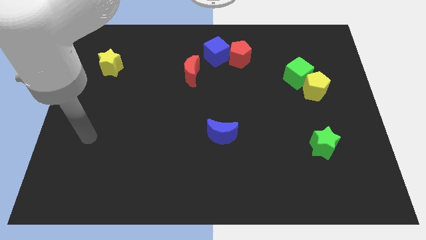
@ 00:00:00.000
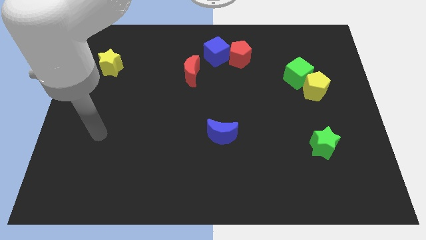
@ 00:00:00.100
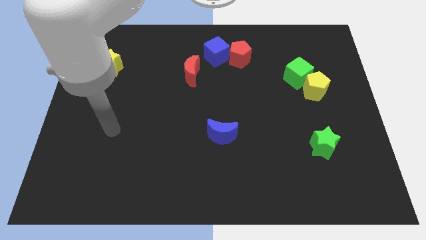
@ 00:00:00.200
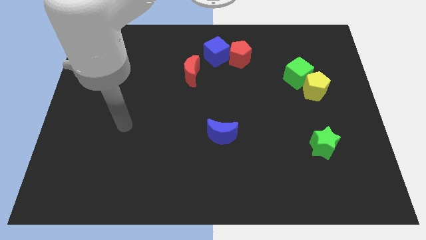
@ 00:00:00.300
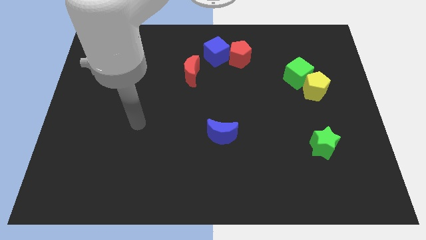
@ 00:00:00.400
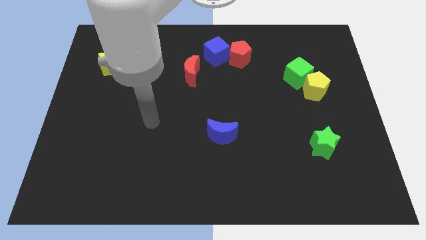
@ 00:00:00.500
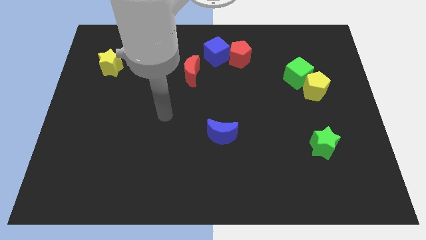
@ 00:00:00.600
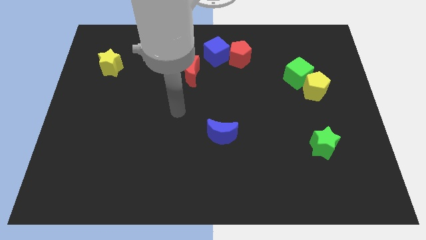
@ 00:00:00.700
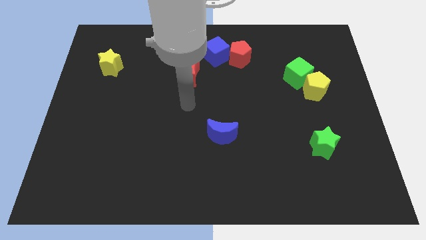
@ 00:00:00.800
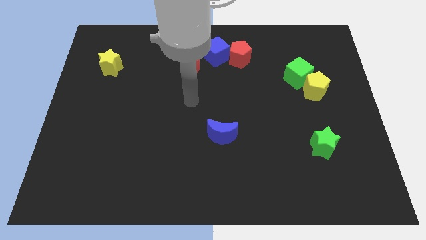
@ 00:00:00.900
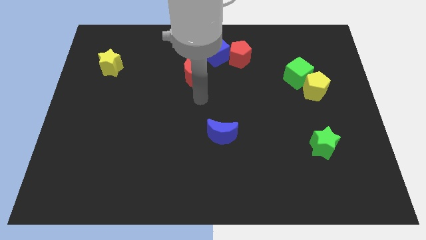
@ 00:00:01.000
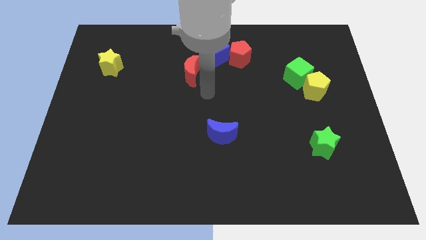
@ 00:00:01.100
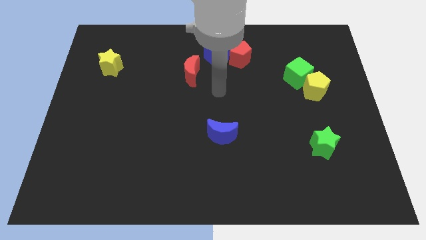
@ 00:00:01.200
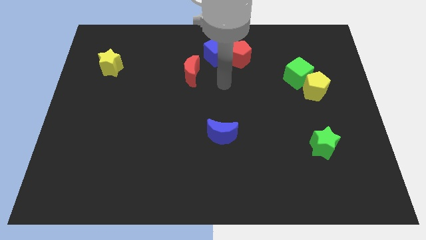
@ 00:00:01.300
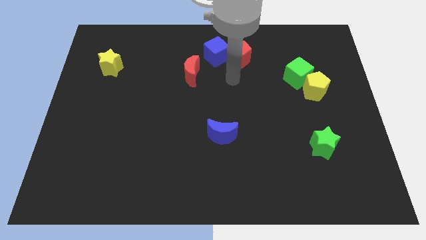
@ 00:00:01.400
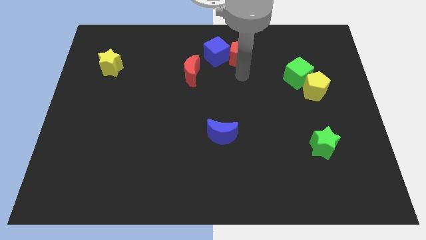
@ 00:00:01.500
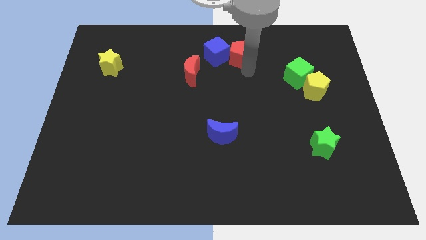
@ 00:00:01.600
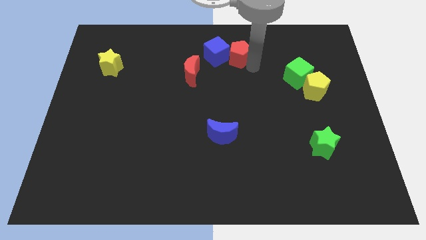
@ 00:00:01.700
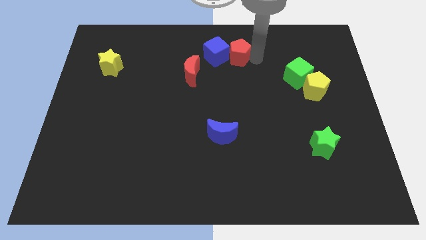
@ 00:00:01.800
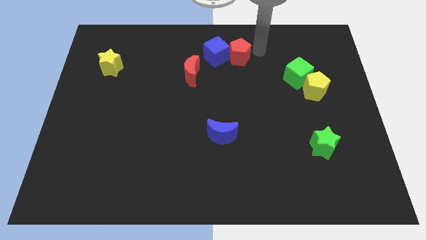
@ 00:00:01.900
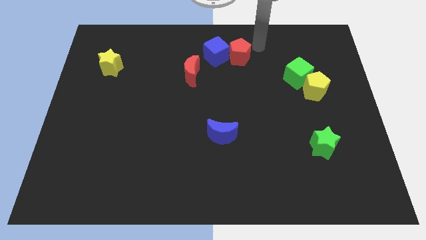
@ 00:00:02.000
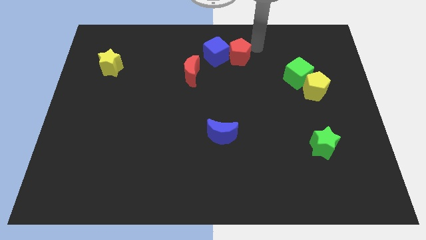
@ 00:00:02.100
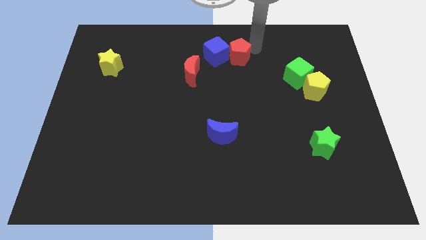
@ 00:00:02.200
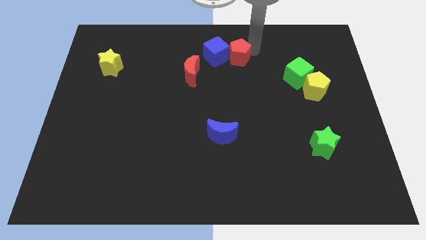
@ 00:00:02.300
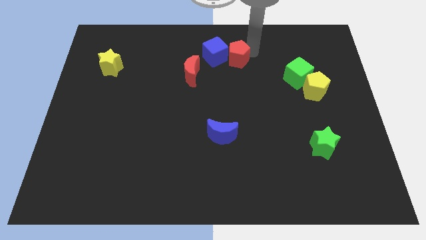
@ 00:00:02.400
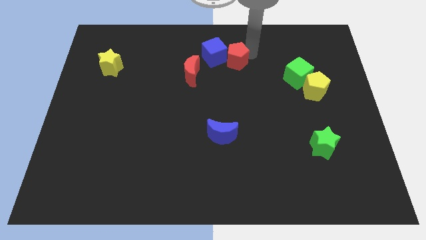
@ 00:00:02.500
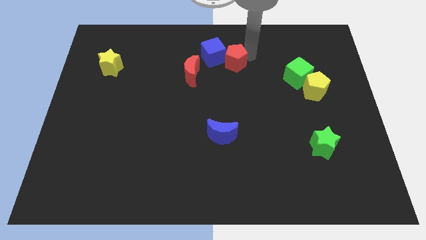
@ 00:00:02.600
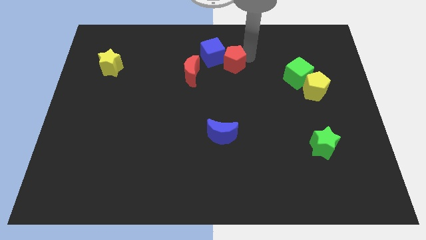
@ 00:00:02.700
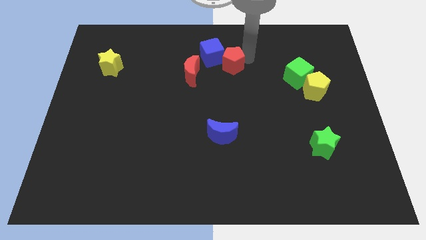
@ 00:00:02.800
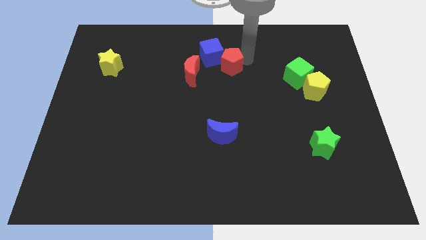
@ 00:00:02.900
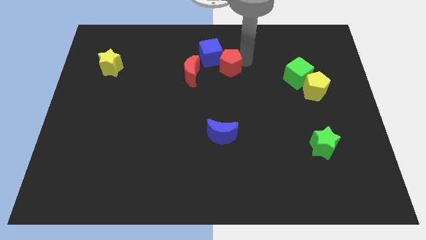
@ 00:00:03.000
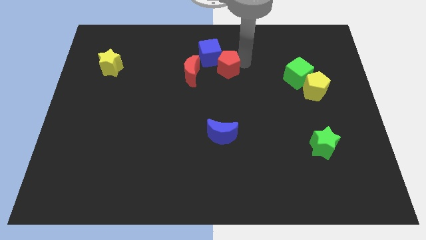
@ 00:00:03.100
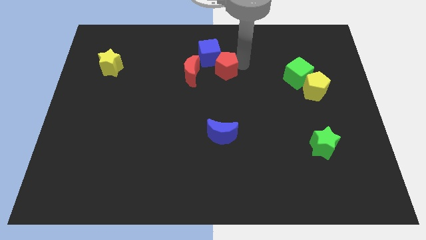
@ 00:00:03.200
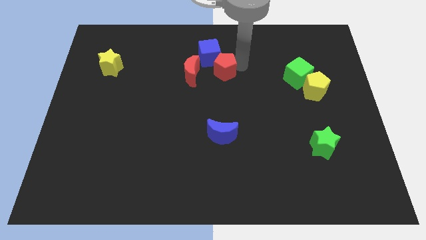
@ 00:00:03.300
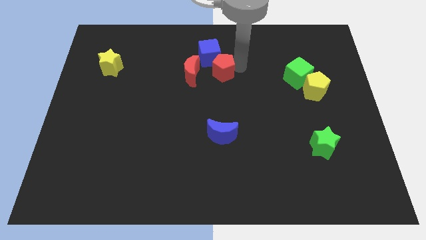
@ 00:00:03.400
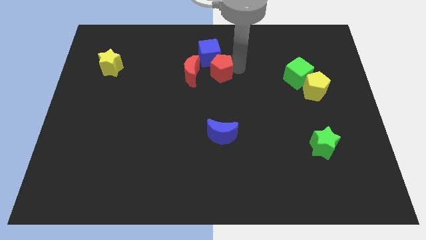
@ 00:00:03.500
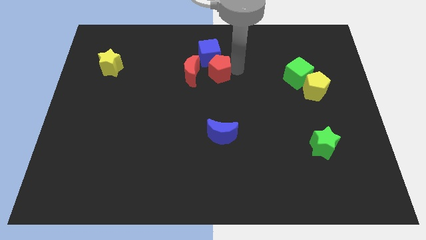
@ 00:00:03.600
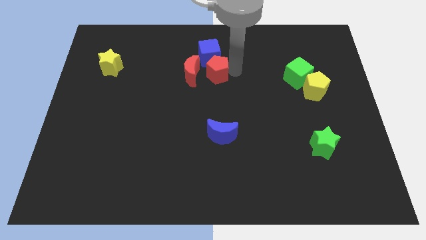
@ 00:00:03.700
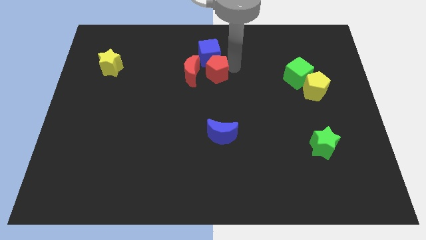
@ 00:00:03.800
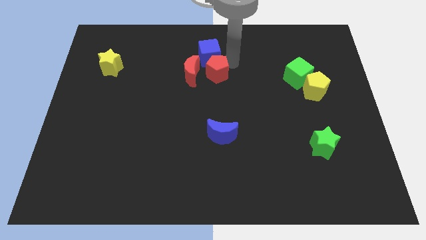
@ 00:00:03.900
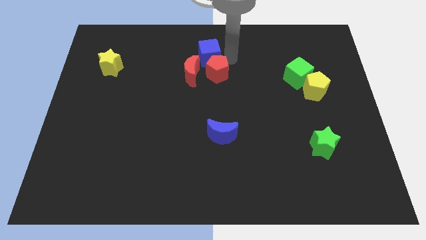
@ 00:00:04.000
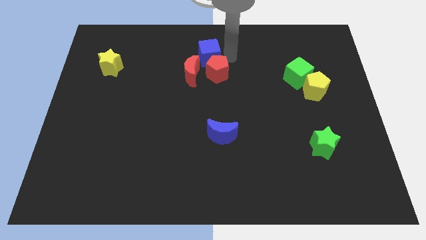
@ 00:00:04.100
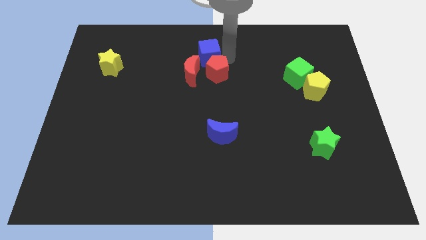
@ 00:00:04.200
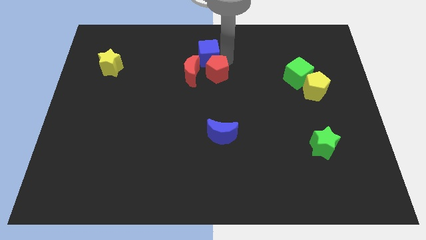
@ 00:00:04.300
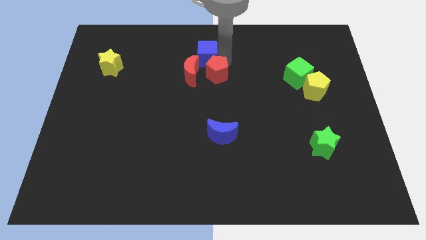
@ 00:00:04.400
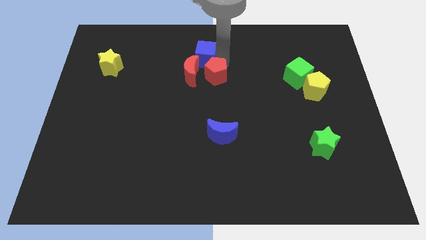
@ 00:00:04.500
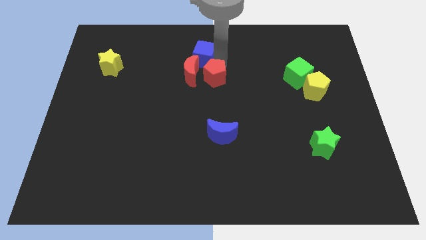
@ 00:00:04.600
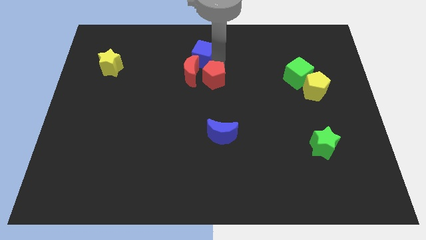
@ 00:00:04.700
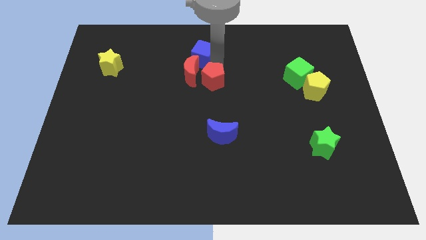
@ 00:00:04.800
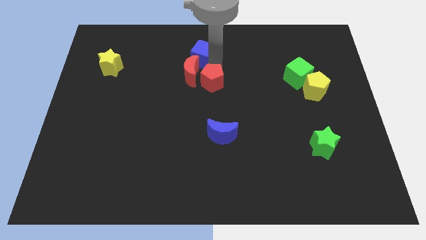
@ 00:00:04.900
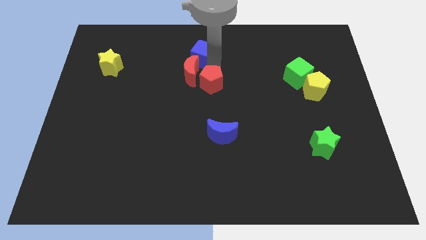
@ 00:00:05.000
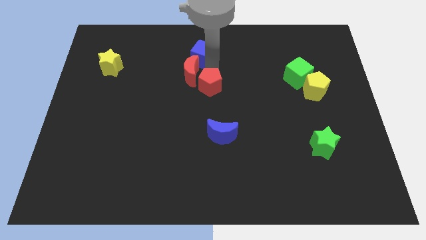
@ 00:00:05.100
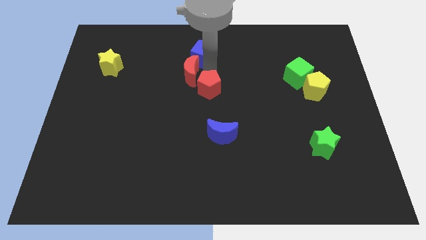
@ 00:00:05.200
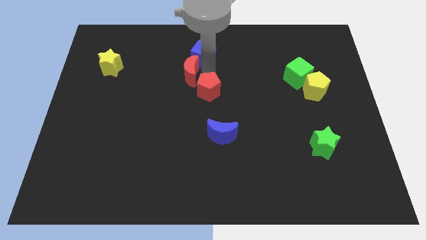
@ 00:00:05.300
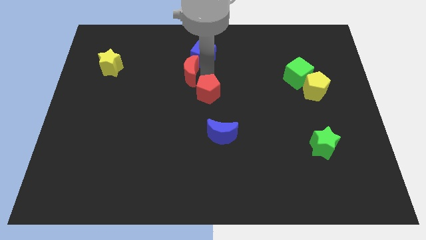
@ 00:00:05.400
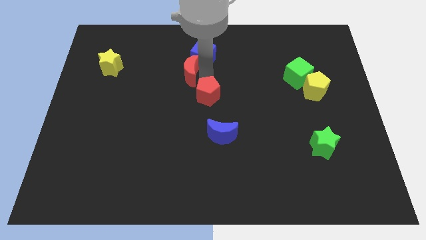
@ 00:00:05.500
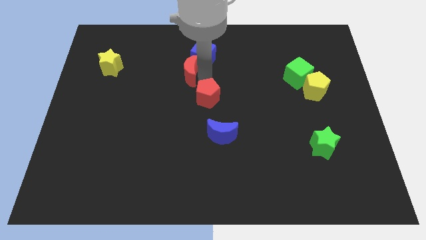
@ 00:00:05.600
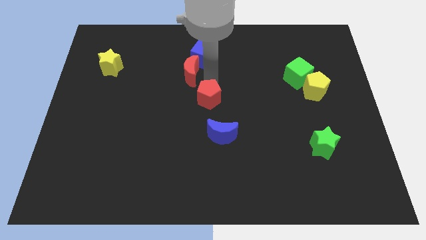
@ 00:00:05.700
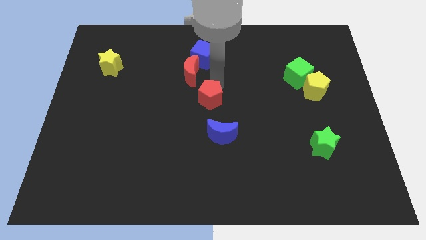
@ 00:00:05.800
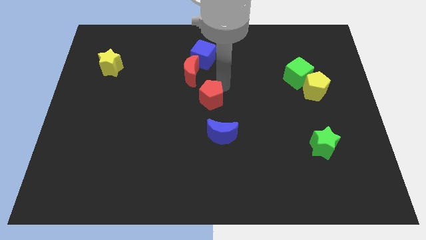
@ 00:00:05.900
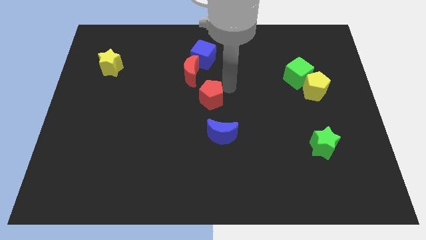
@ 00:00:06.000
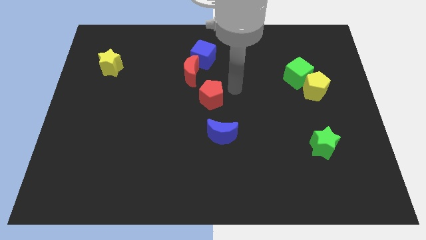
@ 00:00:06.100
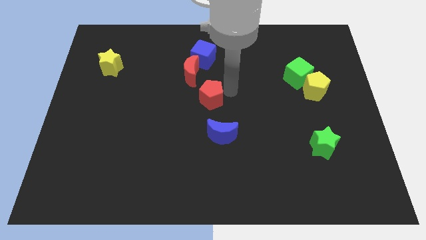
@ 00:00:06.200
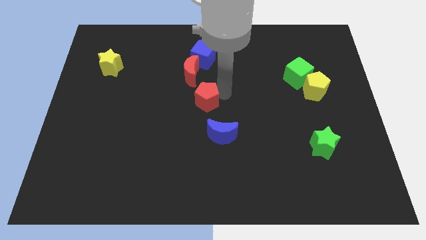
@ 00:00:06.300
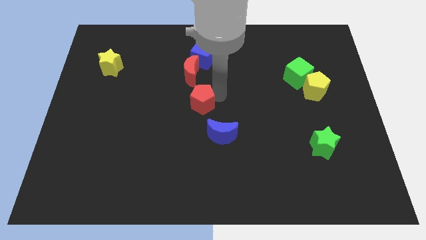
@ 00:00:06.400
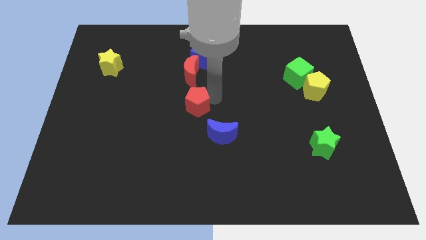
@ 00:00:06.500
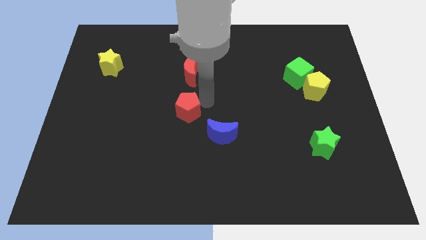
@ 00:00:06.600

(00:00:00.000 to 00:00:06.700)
move the red pentagon diagonally down and to the left

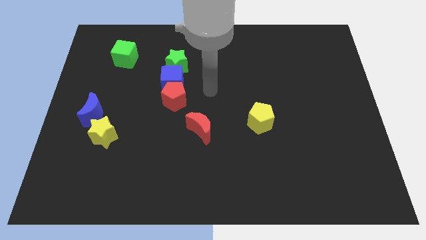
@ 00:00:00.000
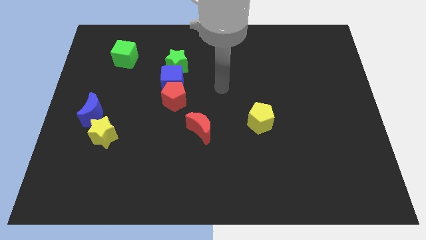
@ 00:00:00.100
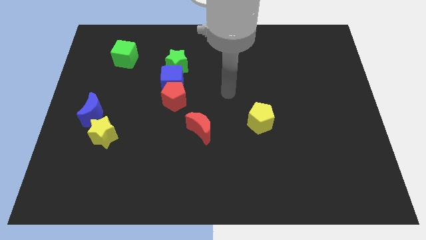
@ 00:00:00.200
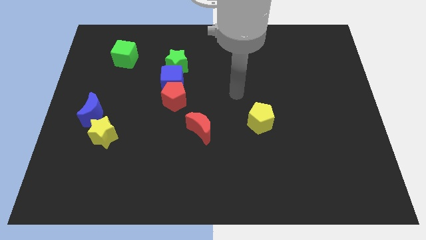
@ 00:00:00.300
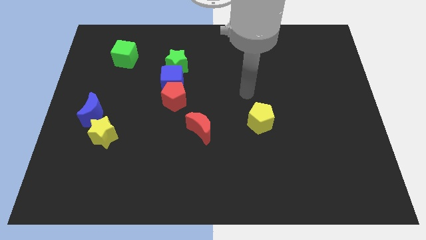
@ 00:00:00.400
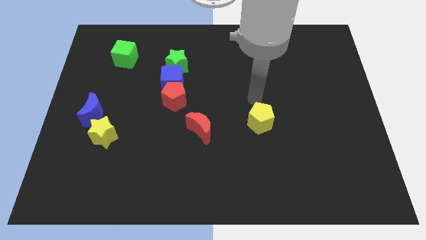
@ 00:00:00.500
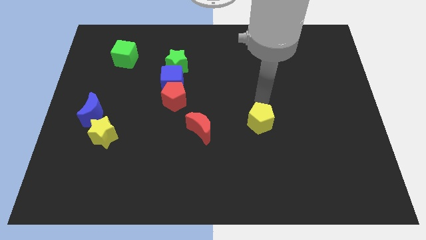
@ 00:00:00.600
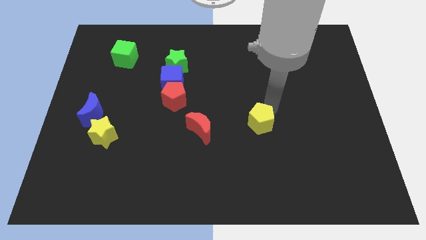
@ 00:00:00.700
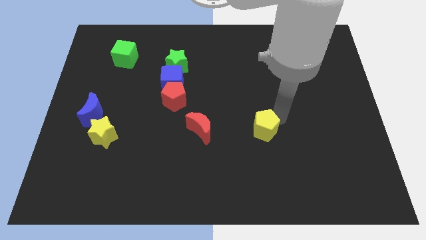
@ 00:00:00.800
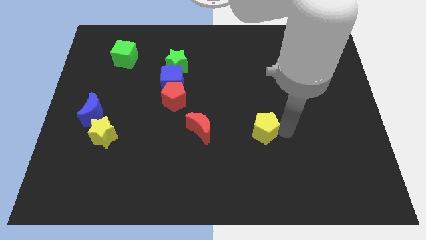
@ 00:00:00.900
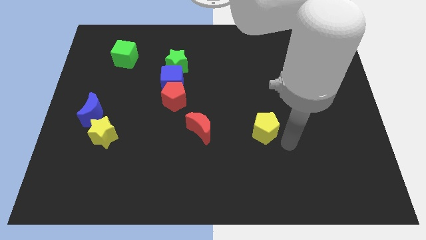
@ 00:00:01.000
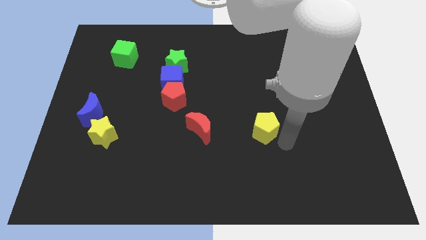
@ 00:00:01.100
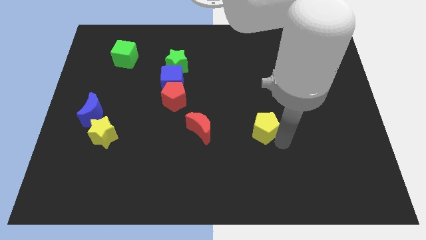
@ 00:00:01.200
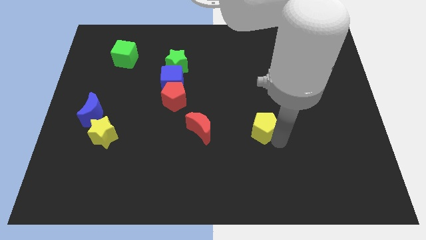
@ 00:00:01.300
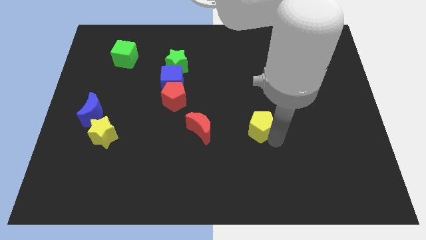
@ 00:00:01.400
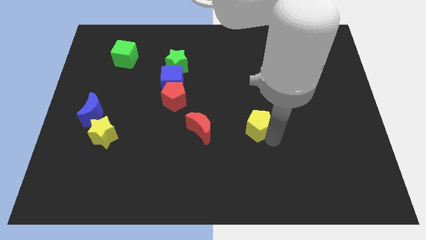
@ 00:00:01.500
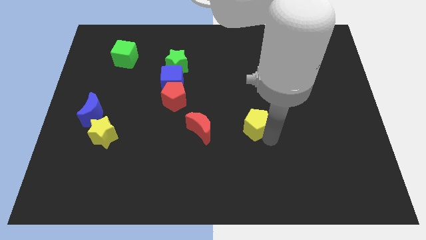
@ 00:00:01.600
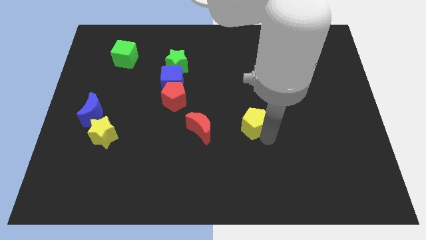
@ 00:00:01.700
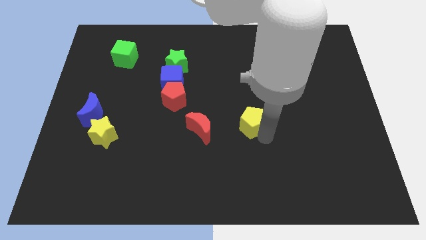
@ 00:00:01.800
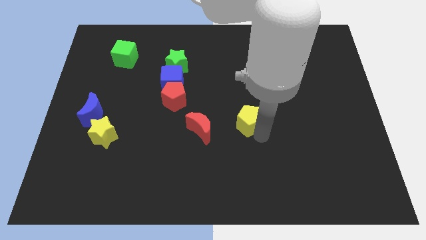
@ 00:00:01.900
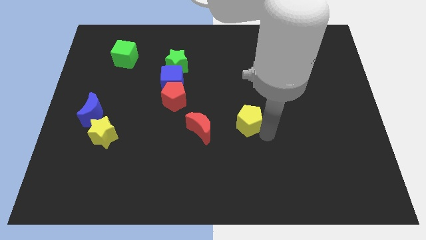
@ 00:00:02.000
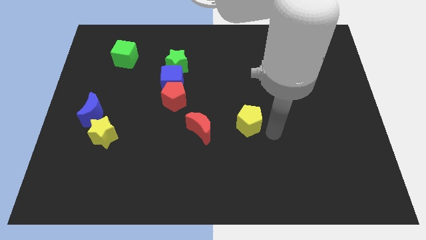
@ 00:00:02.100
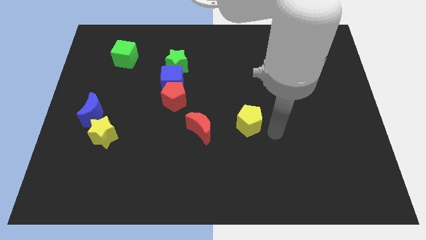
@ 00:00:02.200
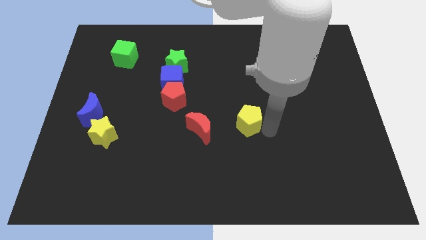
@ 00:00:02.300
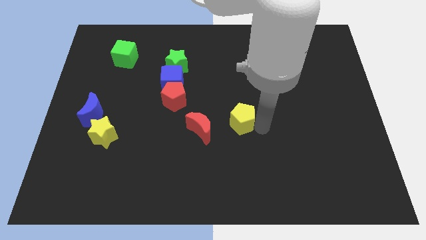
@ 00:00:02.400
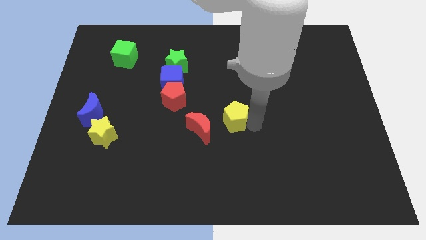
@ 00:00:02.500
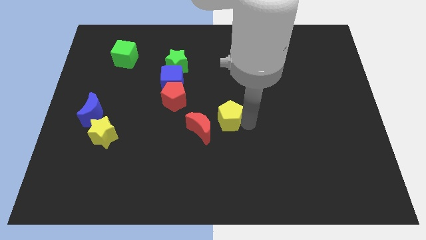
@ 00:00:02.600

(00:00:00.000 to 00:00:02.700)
slightly slide the yellow pentagon left
